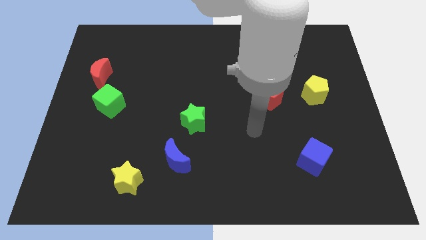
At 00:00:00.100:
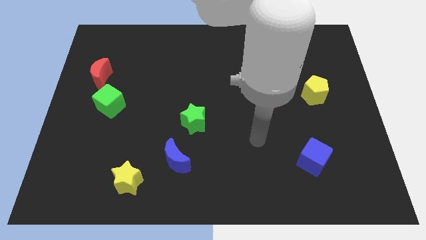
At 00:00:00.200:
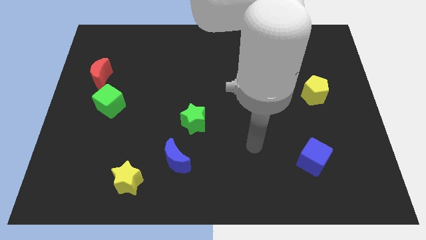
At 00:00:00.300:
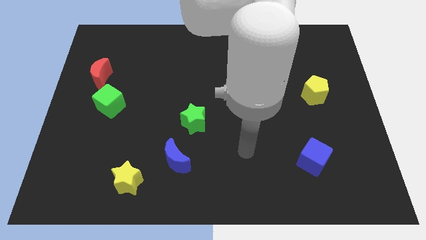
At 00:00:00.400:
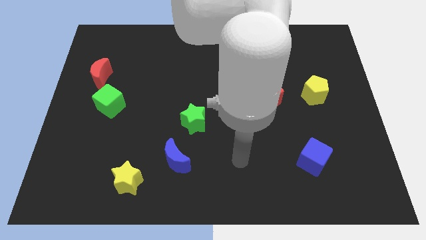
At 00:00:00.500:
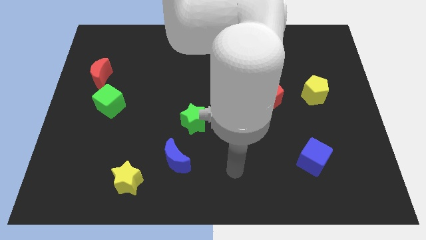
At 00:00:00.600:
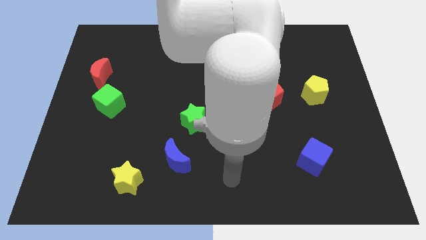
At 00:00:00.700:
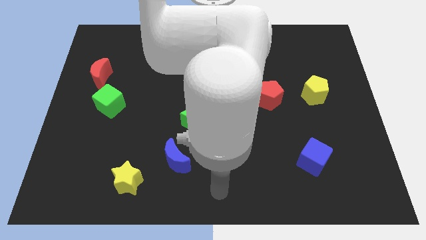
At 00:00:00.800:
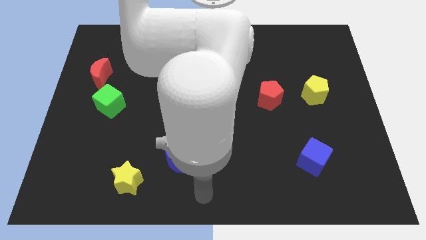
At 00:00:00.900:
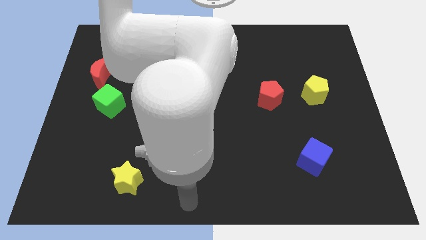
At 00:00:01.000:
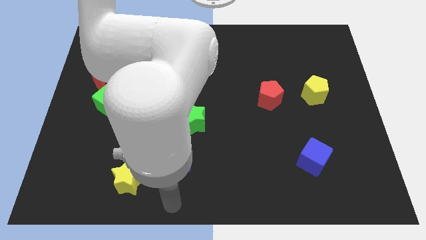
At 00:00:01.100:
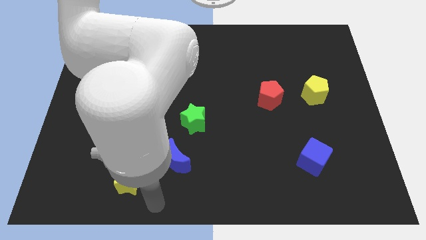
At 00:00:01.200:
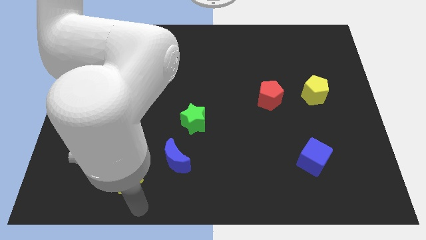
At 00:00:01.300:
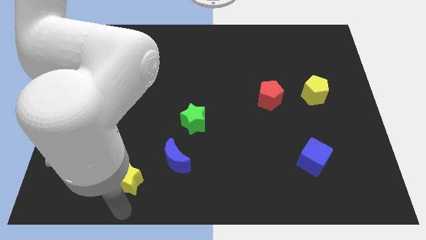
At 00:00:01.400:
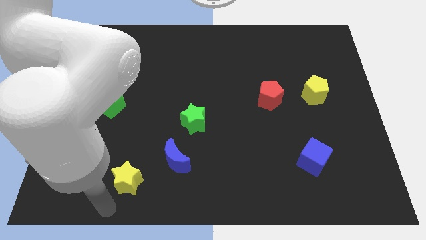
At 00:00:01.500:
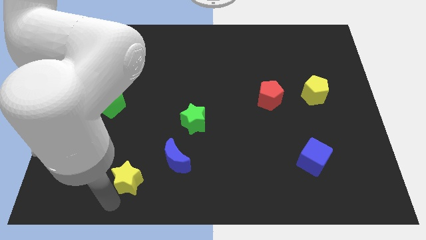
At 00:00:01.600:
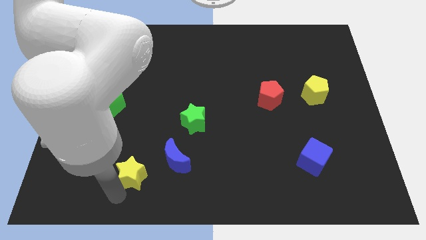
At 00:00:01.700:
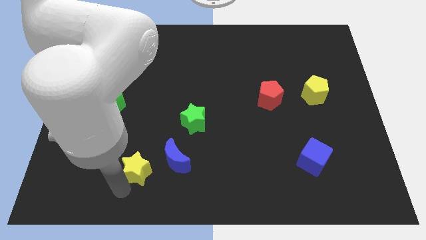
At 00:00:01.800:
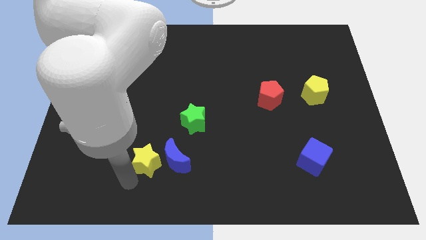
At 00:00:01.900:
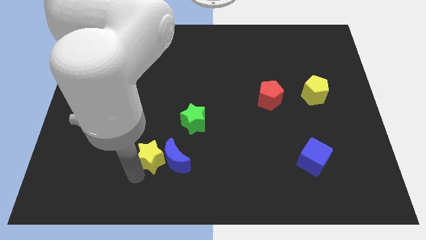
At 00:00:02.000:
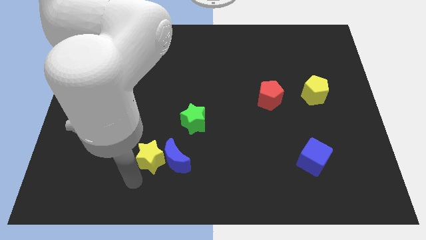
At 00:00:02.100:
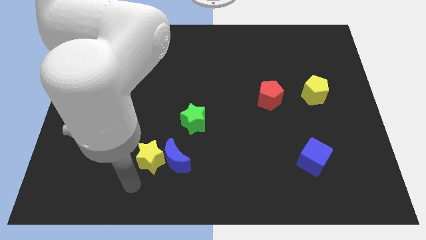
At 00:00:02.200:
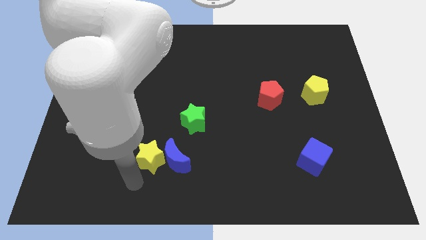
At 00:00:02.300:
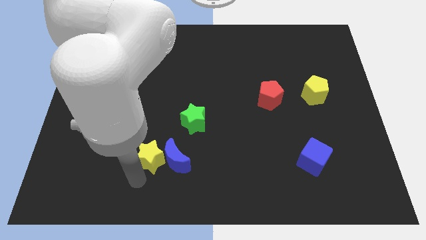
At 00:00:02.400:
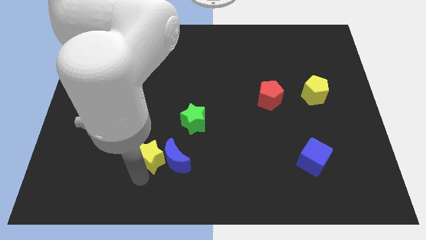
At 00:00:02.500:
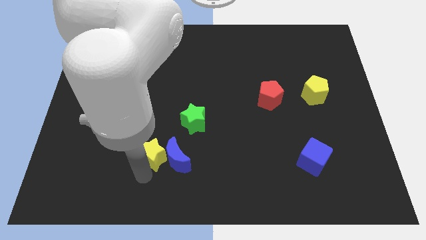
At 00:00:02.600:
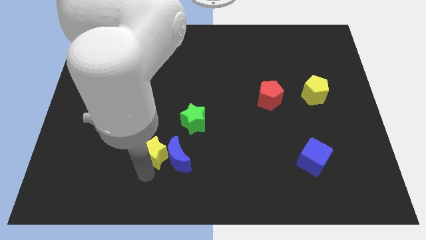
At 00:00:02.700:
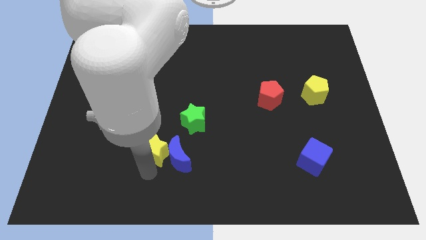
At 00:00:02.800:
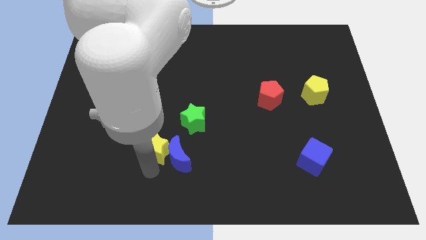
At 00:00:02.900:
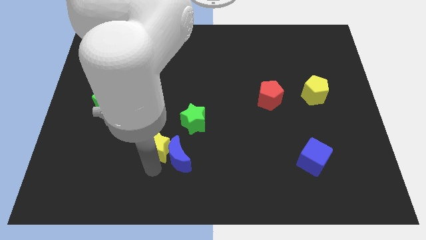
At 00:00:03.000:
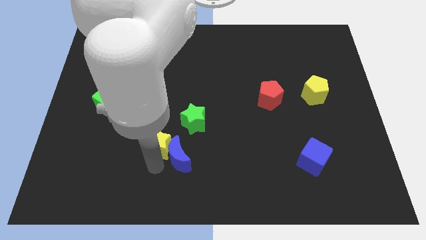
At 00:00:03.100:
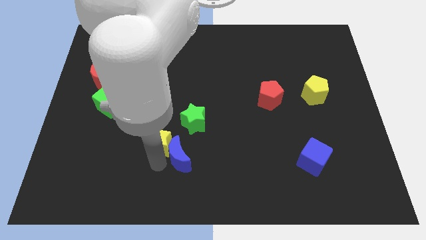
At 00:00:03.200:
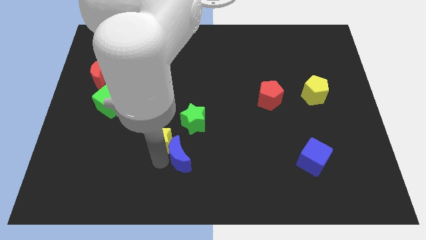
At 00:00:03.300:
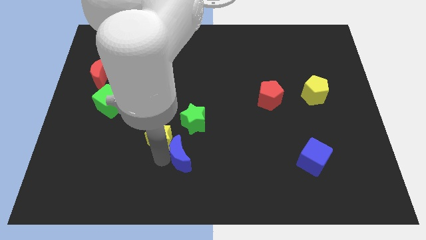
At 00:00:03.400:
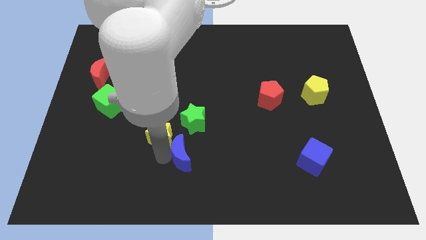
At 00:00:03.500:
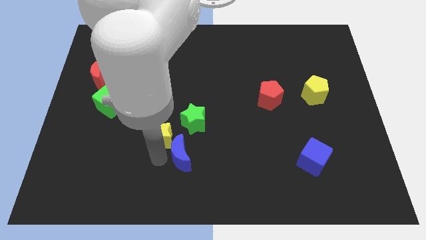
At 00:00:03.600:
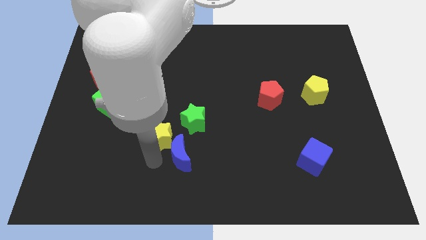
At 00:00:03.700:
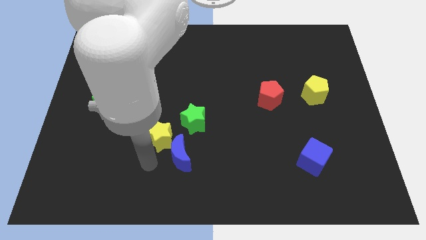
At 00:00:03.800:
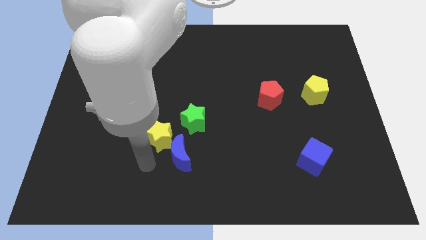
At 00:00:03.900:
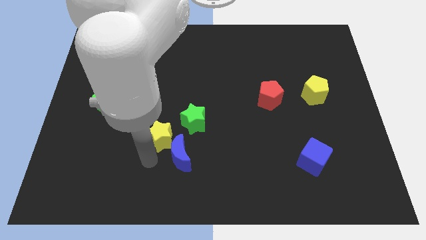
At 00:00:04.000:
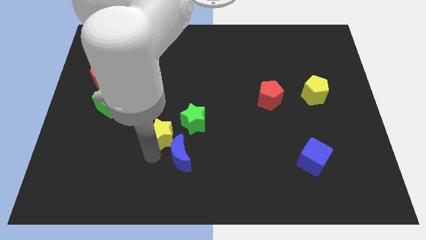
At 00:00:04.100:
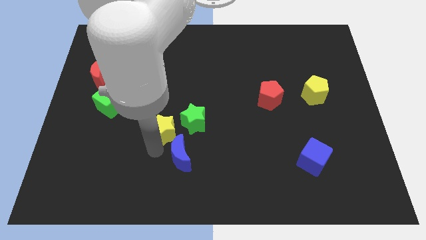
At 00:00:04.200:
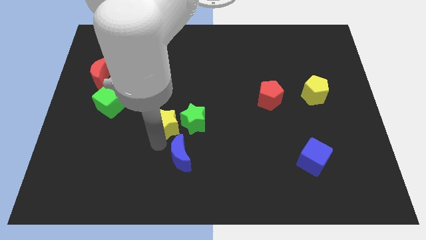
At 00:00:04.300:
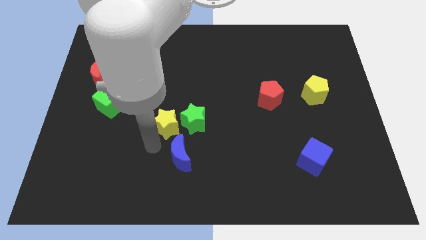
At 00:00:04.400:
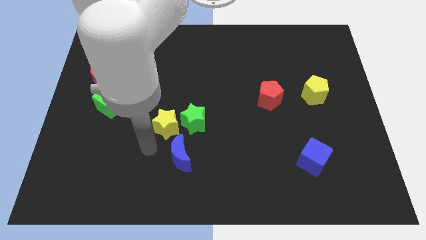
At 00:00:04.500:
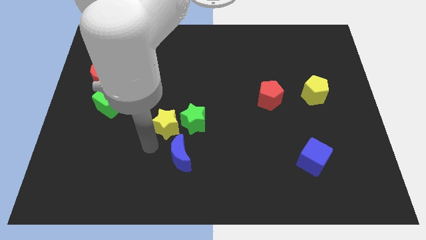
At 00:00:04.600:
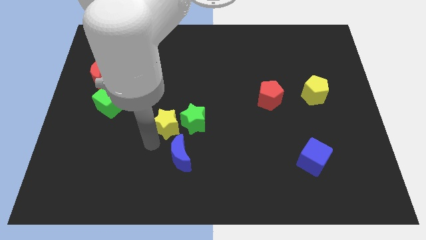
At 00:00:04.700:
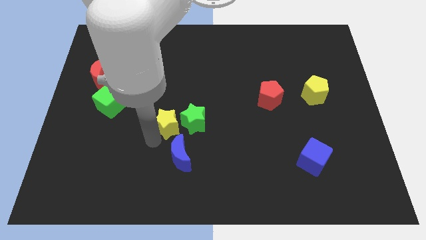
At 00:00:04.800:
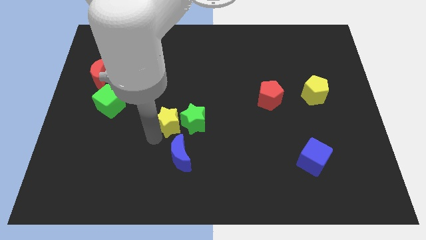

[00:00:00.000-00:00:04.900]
put the yellow star to the middle of the board
